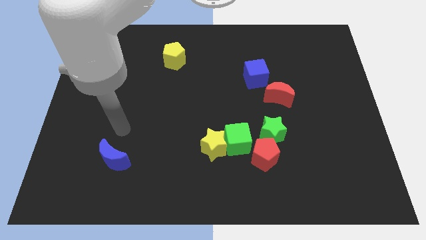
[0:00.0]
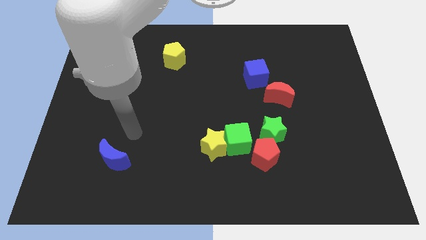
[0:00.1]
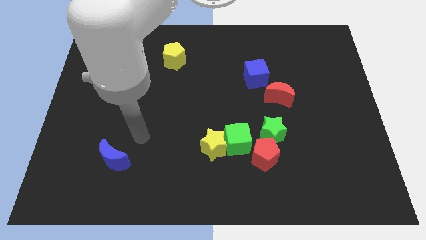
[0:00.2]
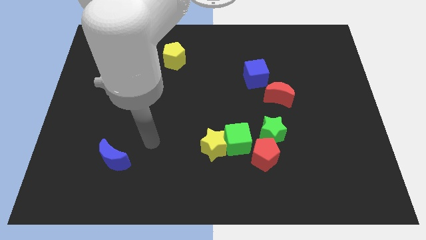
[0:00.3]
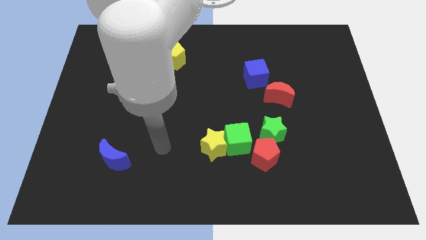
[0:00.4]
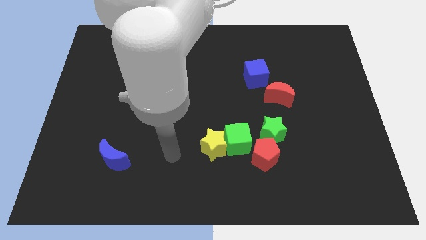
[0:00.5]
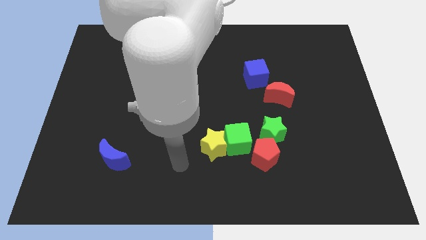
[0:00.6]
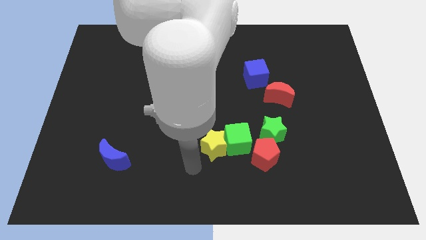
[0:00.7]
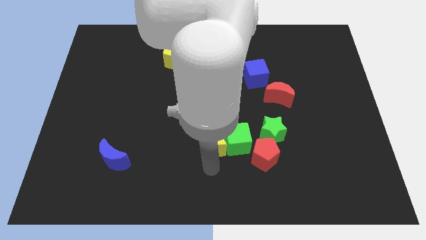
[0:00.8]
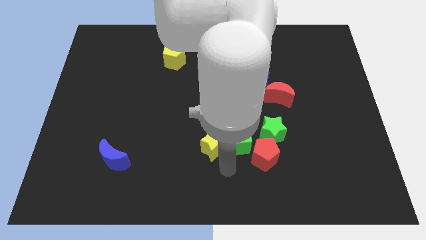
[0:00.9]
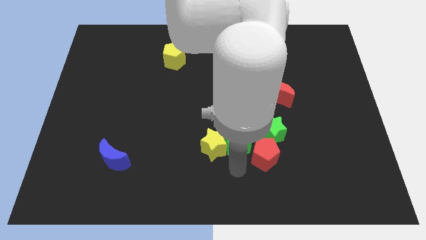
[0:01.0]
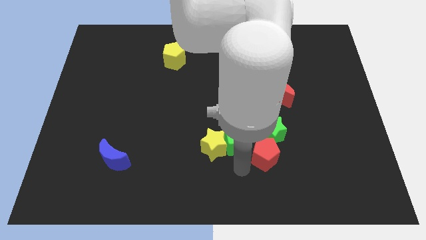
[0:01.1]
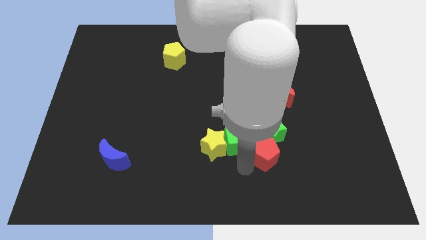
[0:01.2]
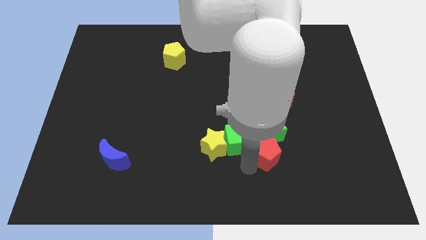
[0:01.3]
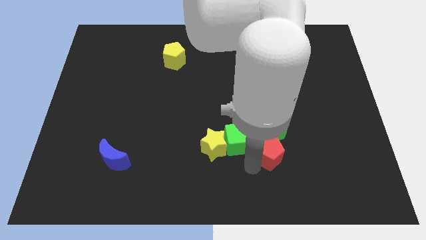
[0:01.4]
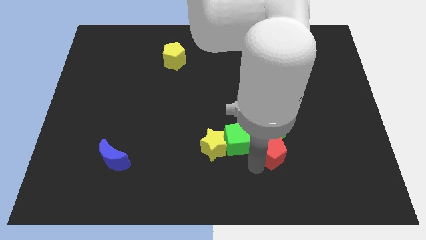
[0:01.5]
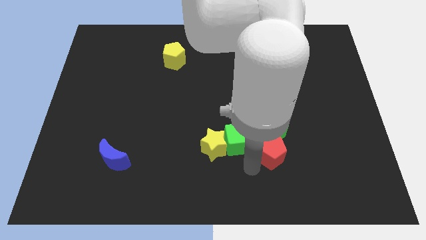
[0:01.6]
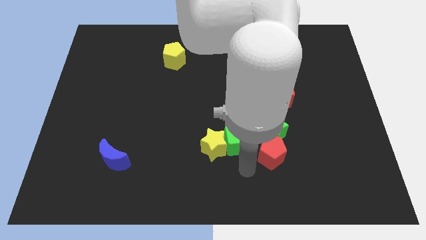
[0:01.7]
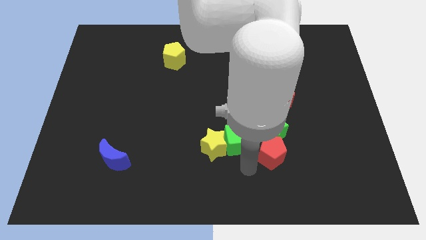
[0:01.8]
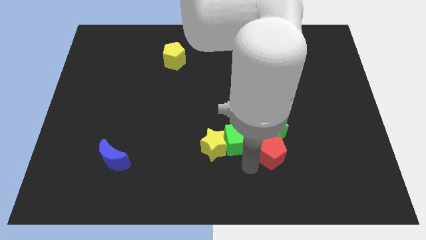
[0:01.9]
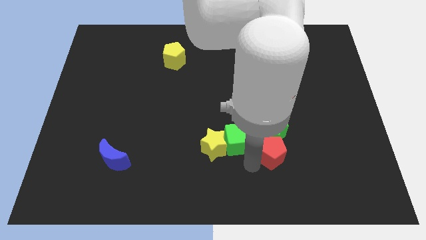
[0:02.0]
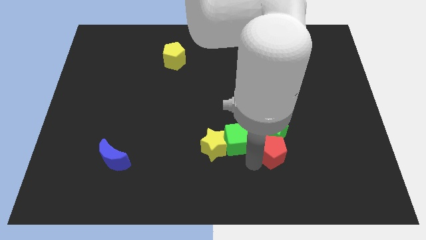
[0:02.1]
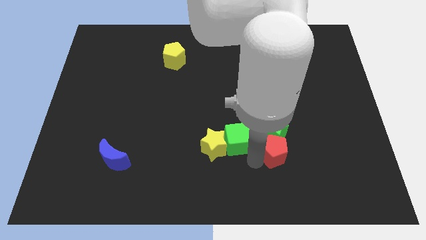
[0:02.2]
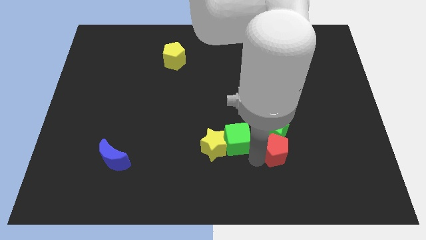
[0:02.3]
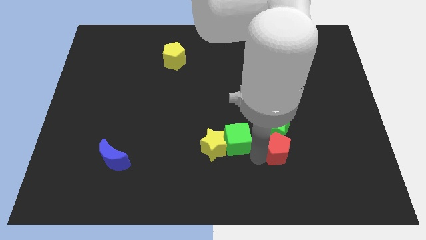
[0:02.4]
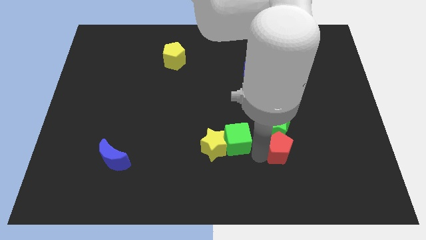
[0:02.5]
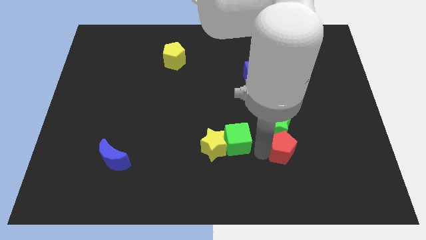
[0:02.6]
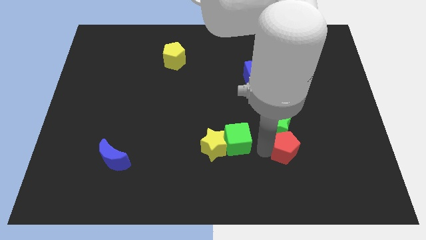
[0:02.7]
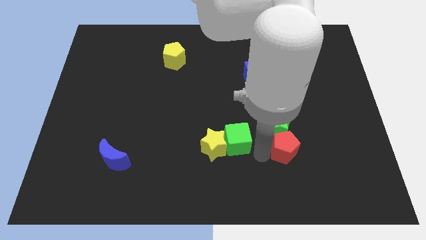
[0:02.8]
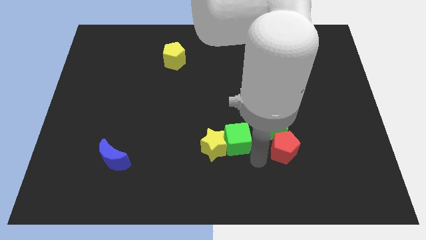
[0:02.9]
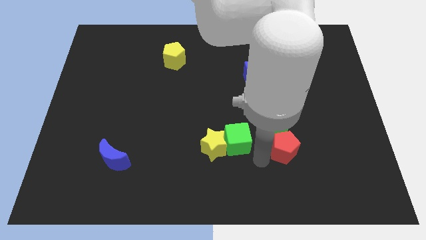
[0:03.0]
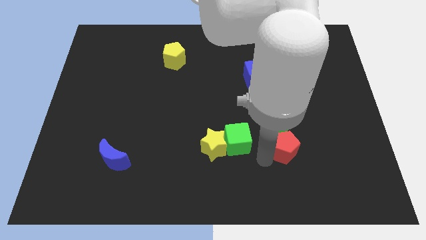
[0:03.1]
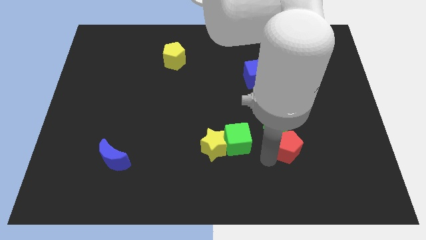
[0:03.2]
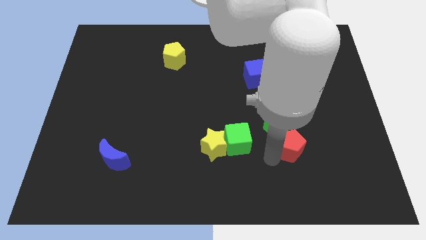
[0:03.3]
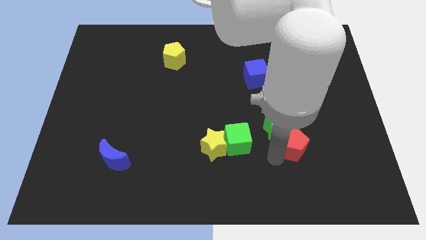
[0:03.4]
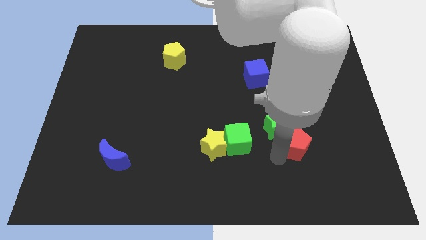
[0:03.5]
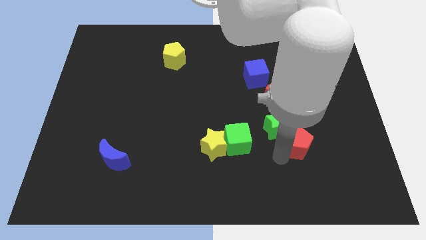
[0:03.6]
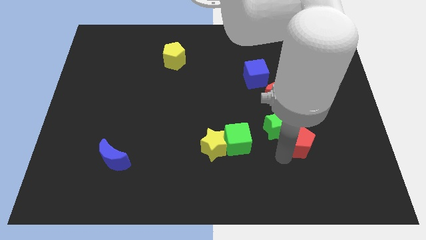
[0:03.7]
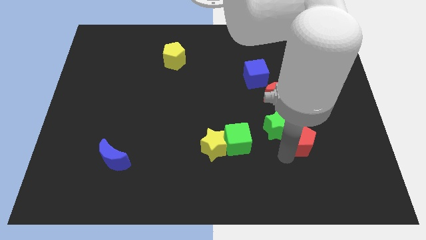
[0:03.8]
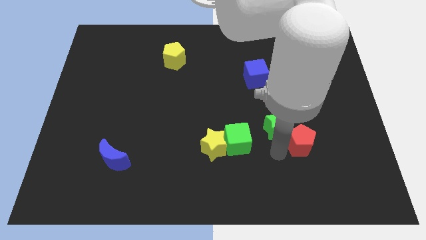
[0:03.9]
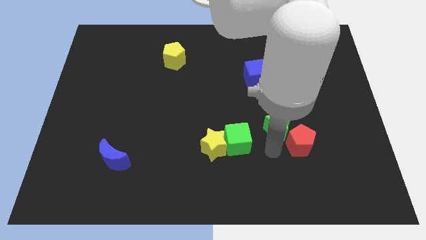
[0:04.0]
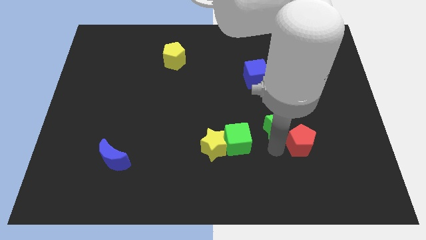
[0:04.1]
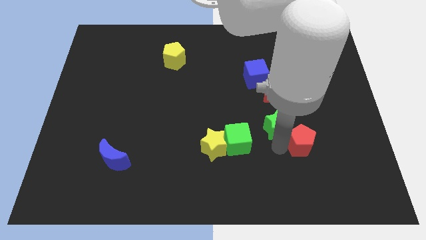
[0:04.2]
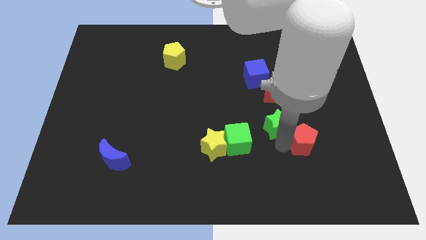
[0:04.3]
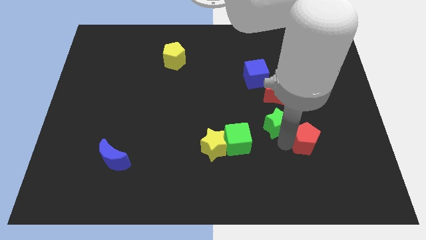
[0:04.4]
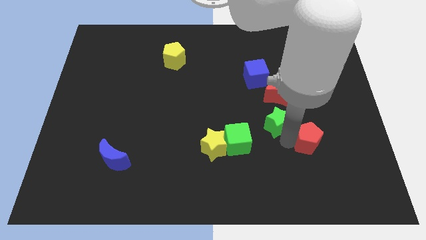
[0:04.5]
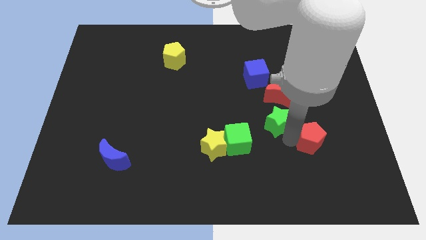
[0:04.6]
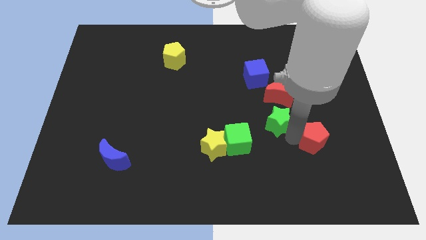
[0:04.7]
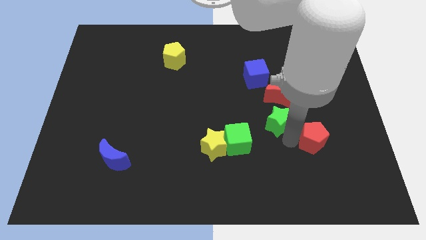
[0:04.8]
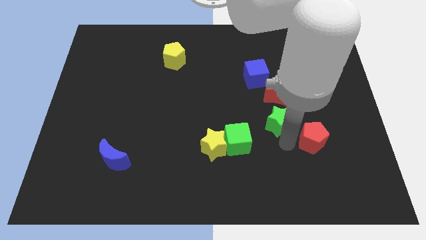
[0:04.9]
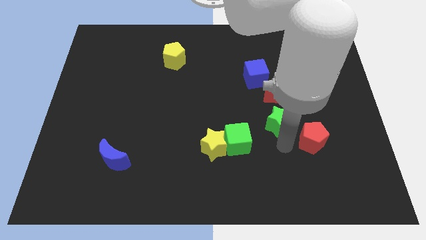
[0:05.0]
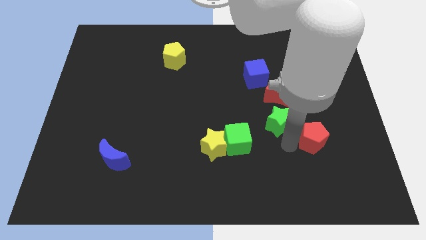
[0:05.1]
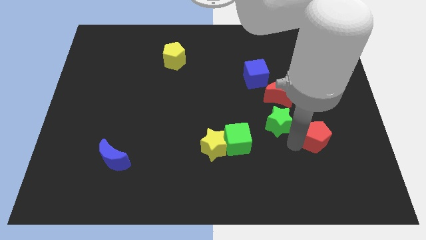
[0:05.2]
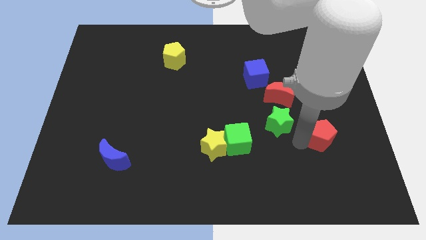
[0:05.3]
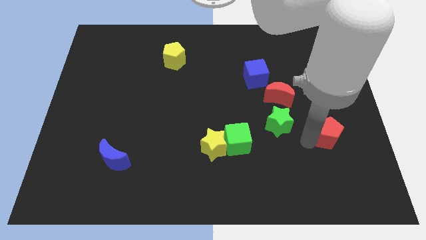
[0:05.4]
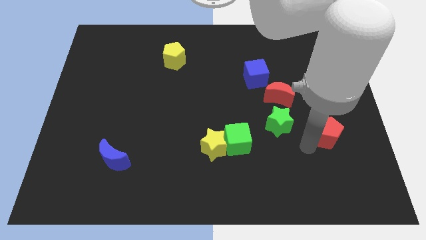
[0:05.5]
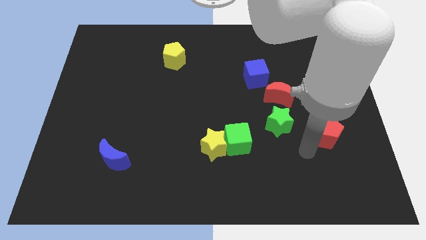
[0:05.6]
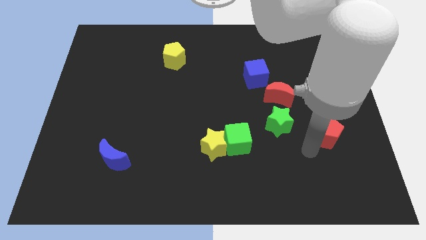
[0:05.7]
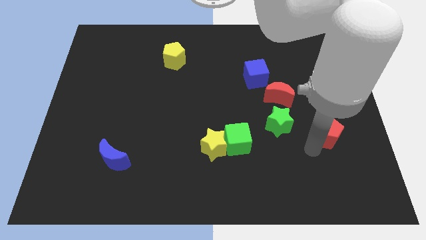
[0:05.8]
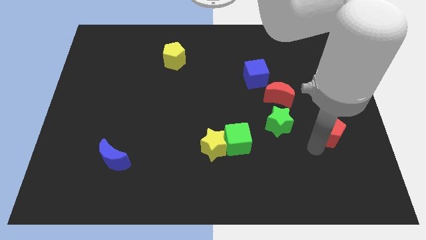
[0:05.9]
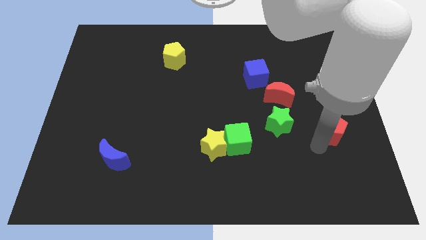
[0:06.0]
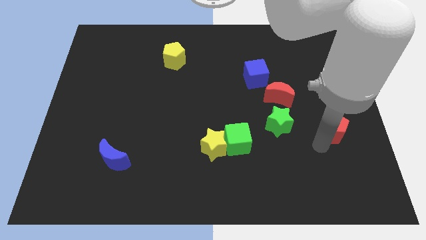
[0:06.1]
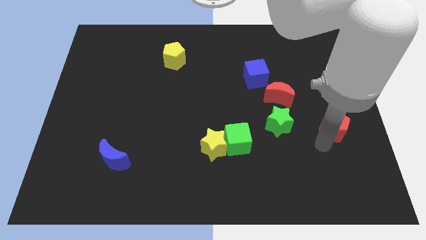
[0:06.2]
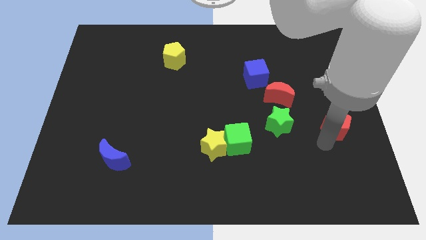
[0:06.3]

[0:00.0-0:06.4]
move the red pentagon to the right side of the board
